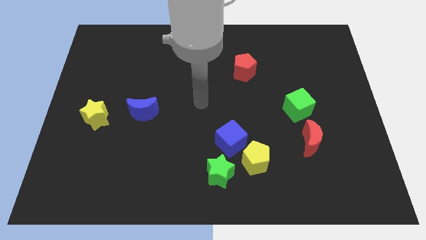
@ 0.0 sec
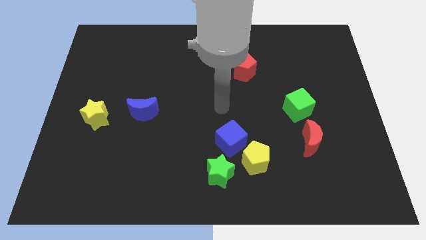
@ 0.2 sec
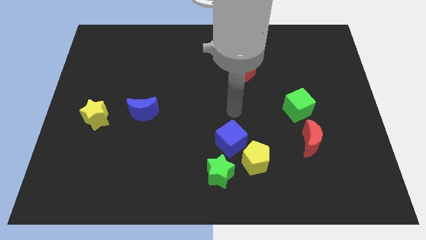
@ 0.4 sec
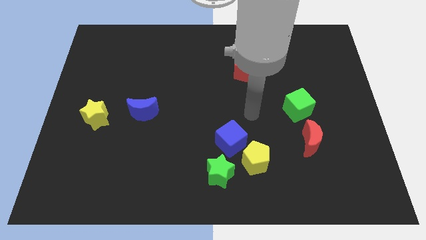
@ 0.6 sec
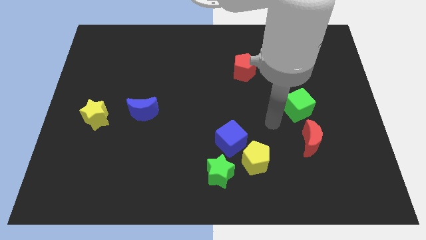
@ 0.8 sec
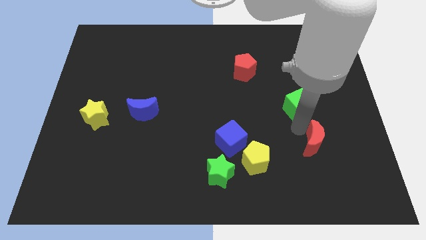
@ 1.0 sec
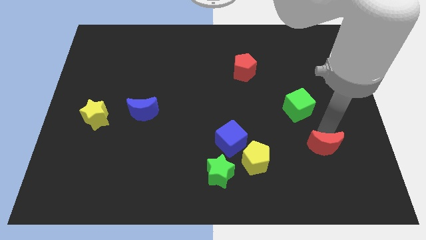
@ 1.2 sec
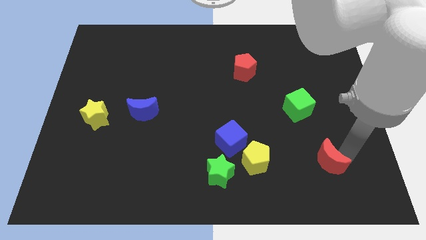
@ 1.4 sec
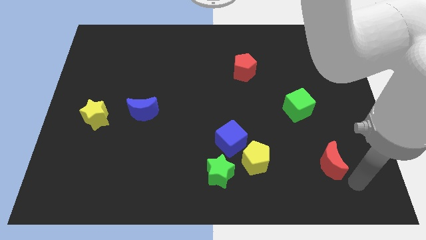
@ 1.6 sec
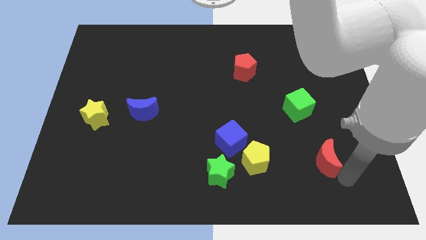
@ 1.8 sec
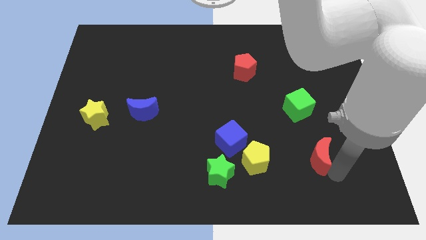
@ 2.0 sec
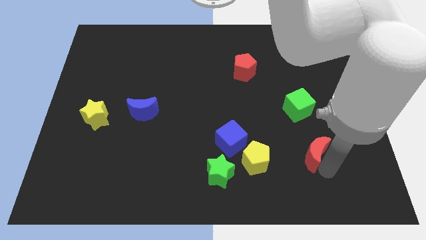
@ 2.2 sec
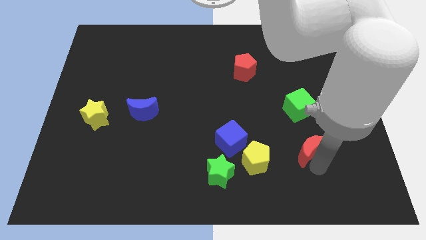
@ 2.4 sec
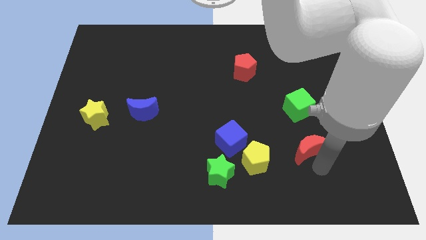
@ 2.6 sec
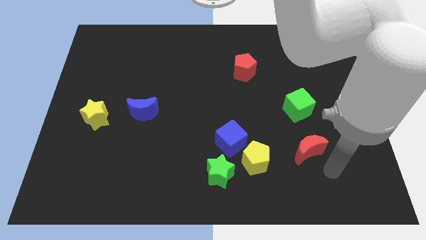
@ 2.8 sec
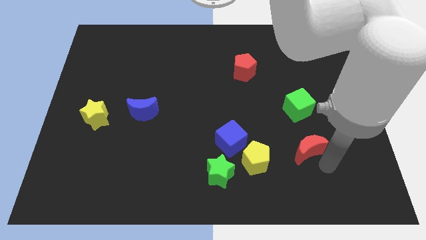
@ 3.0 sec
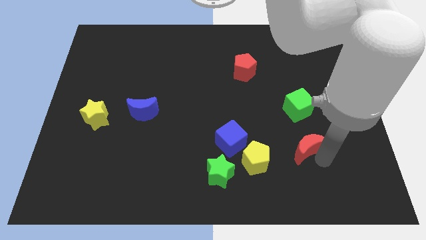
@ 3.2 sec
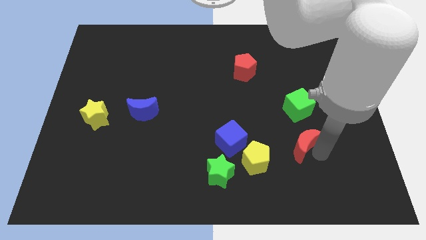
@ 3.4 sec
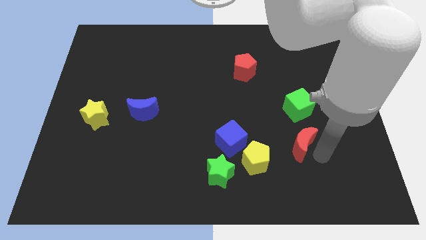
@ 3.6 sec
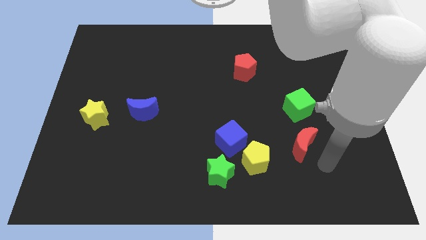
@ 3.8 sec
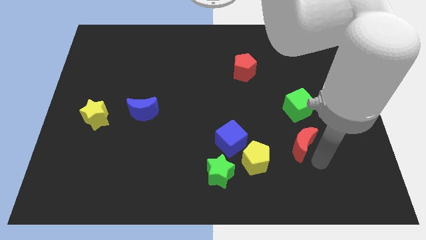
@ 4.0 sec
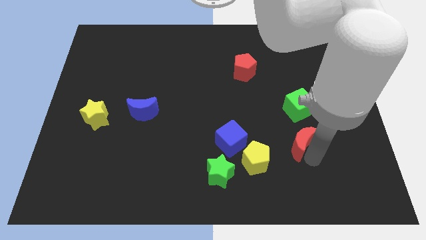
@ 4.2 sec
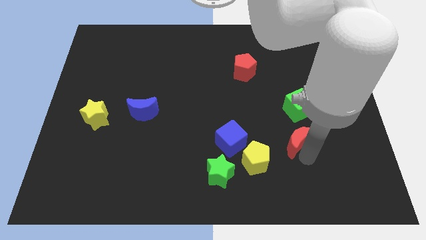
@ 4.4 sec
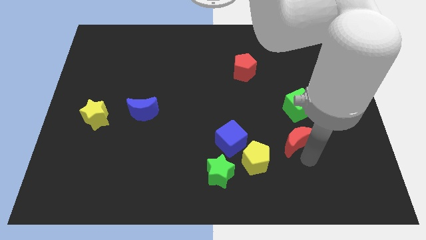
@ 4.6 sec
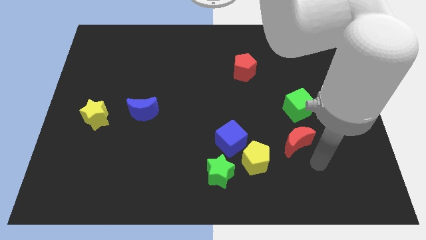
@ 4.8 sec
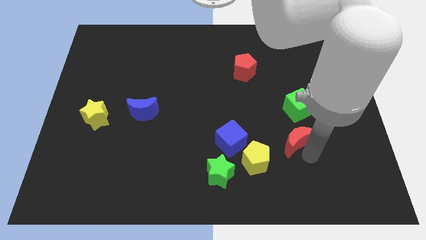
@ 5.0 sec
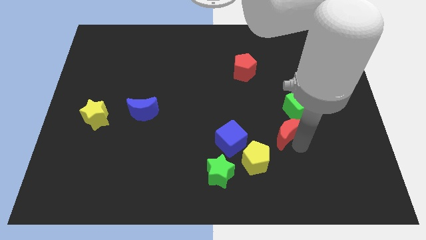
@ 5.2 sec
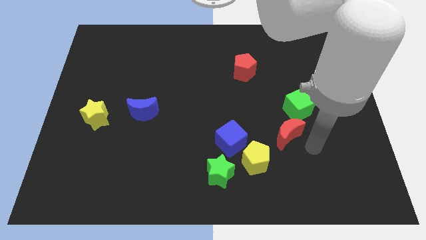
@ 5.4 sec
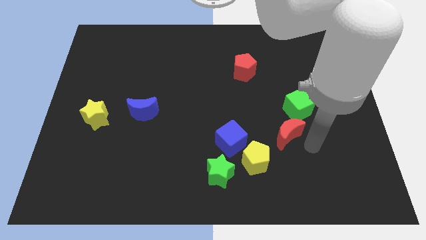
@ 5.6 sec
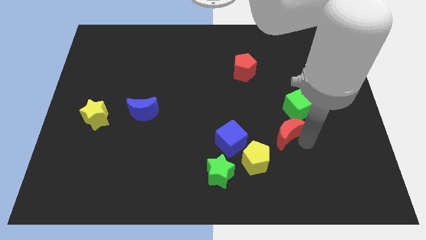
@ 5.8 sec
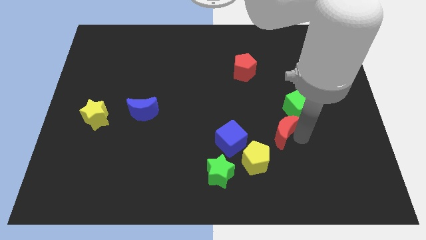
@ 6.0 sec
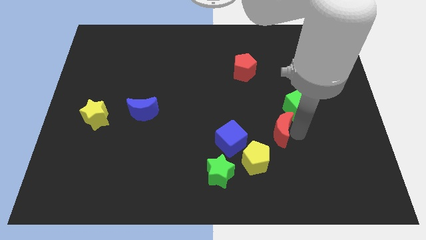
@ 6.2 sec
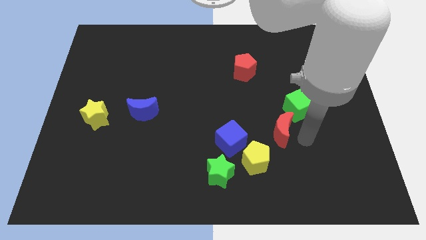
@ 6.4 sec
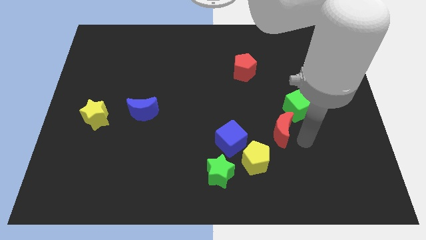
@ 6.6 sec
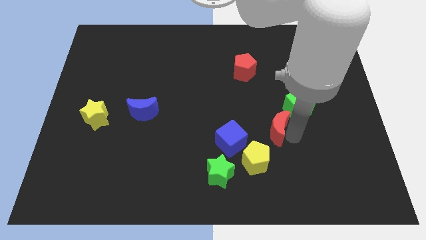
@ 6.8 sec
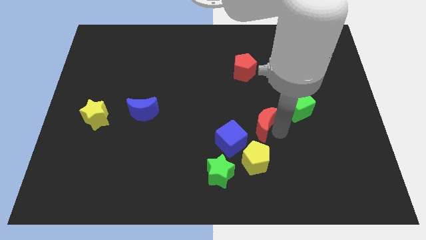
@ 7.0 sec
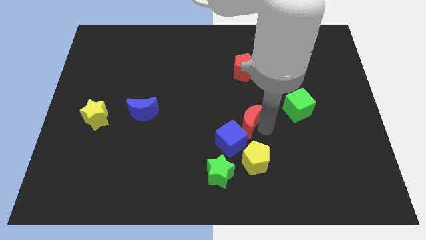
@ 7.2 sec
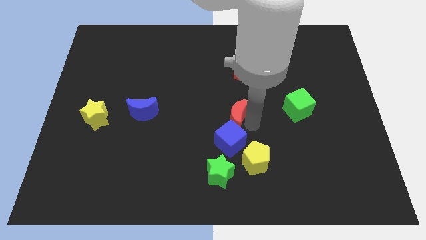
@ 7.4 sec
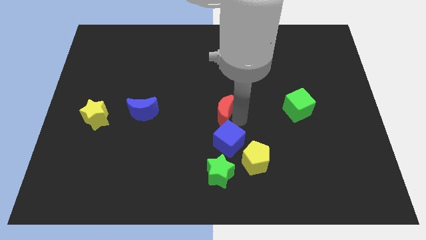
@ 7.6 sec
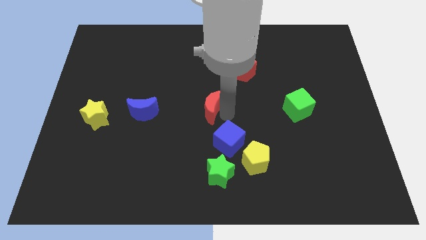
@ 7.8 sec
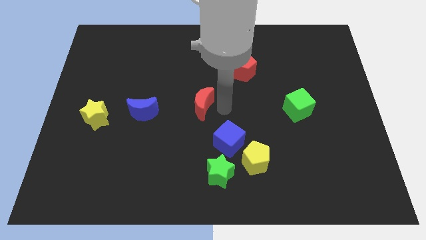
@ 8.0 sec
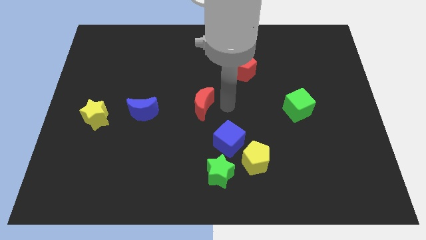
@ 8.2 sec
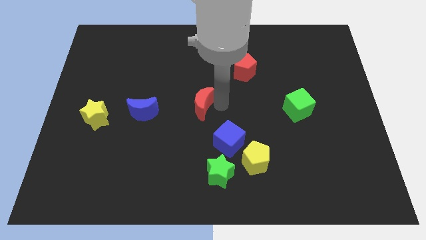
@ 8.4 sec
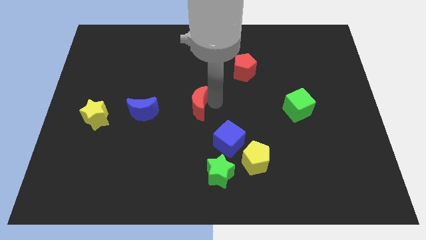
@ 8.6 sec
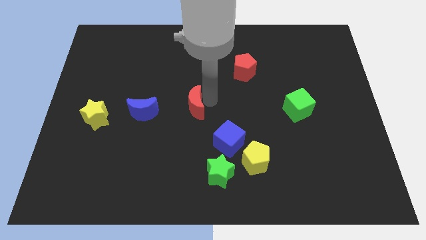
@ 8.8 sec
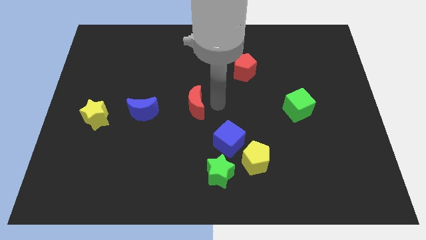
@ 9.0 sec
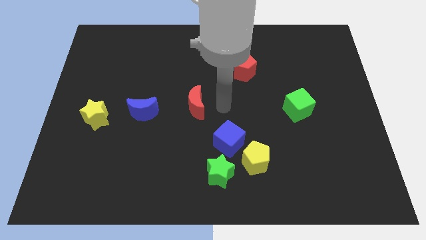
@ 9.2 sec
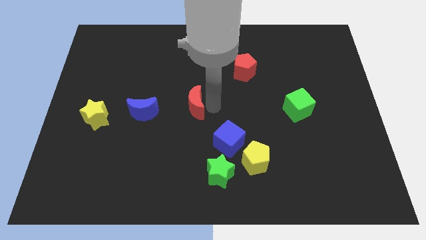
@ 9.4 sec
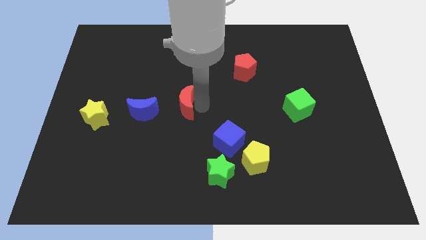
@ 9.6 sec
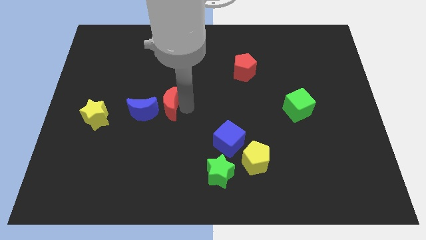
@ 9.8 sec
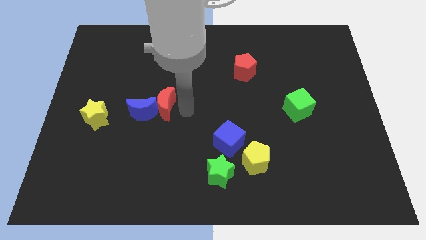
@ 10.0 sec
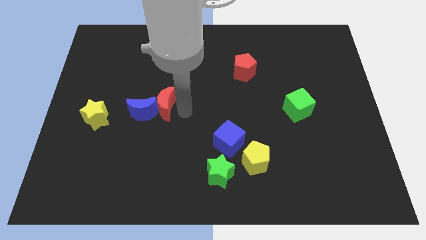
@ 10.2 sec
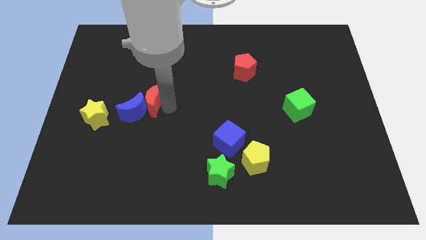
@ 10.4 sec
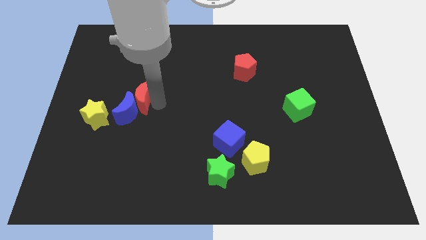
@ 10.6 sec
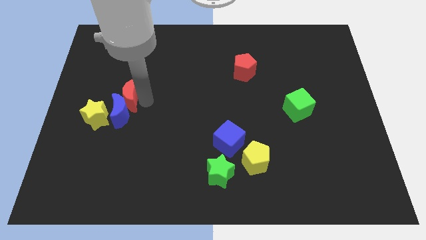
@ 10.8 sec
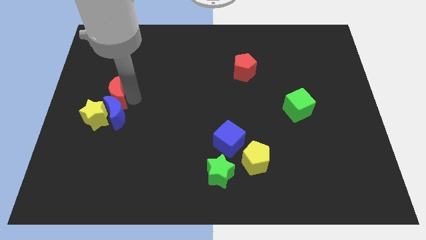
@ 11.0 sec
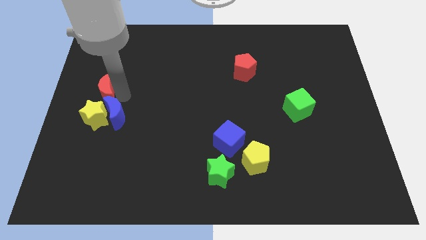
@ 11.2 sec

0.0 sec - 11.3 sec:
put the red moon to the center left

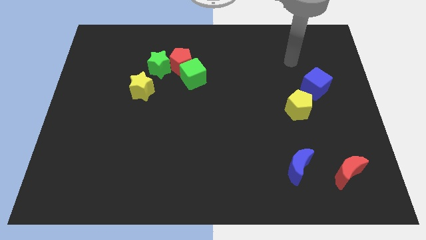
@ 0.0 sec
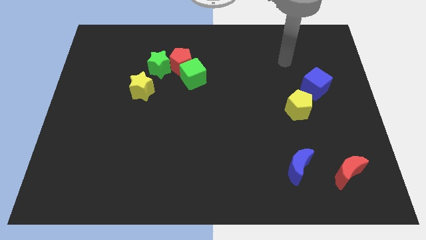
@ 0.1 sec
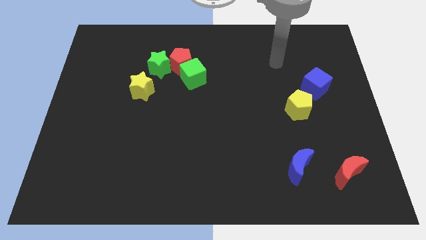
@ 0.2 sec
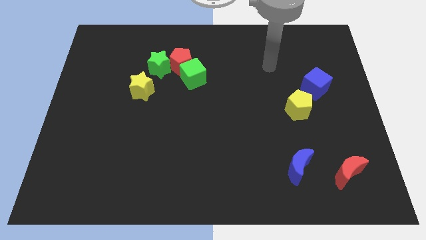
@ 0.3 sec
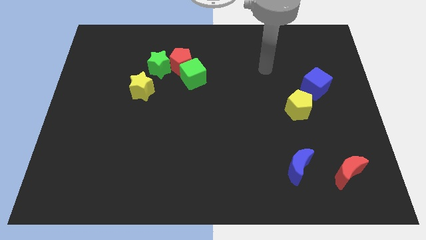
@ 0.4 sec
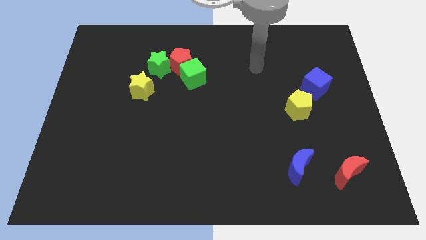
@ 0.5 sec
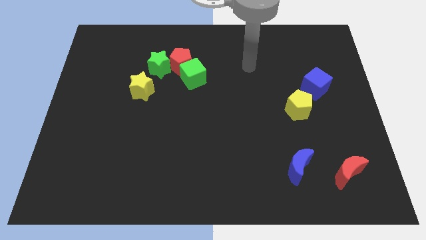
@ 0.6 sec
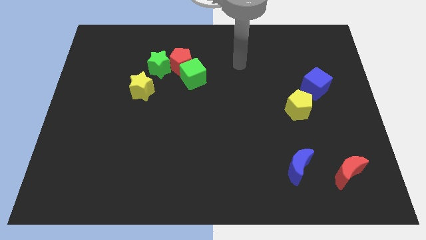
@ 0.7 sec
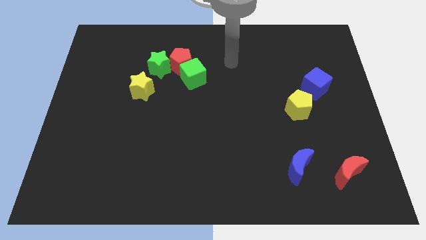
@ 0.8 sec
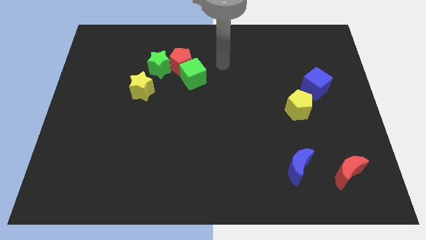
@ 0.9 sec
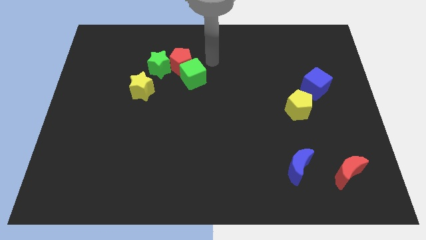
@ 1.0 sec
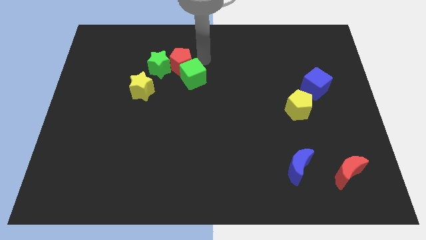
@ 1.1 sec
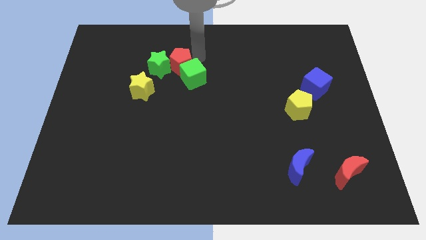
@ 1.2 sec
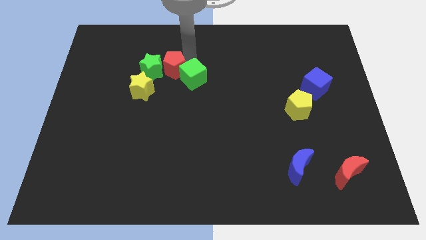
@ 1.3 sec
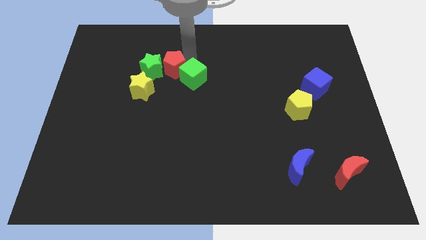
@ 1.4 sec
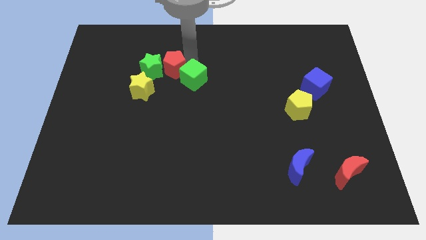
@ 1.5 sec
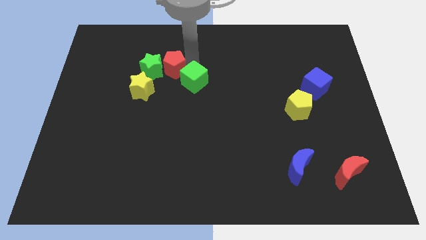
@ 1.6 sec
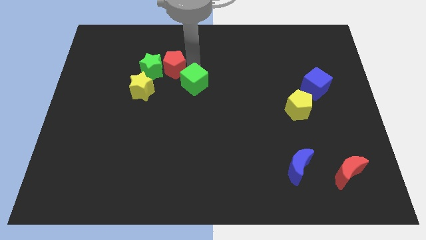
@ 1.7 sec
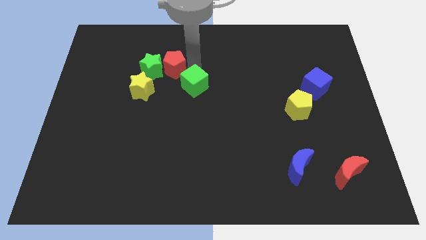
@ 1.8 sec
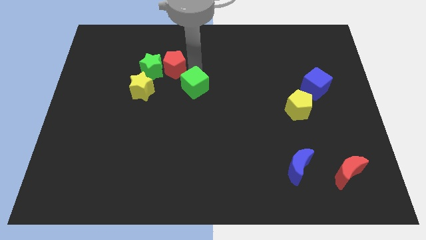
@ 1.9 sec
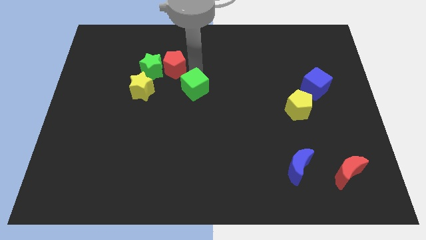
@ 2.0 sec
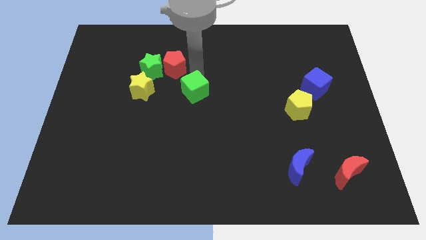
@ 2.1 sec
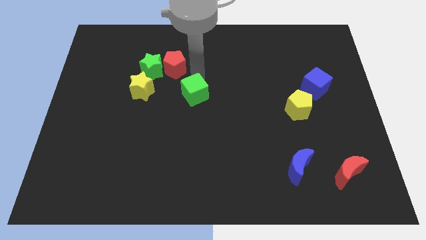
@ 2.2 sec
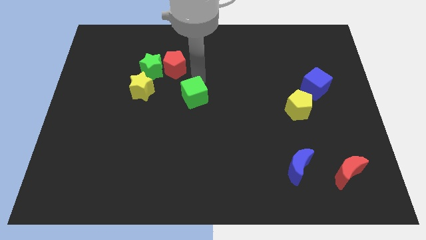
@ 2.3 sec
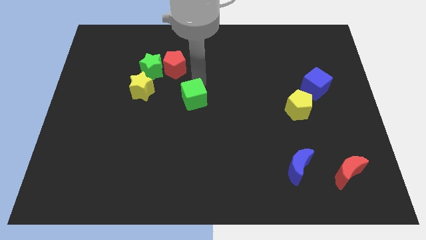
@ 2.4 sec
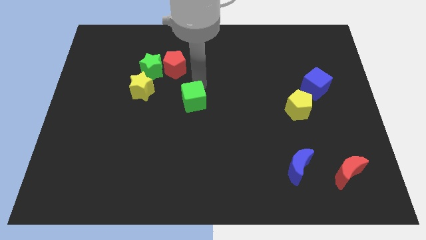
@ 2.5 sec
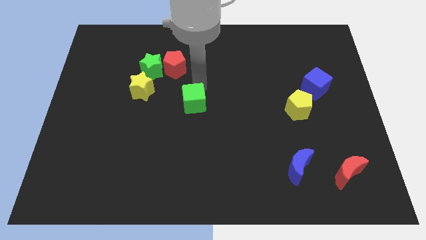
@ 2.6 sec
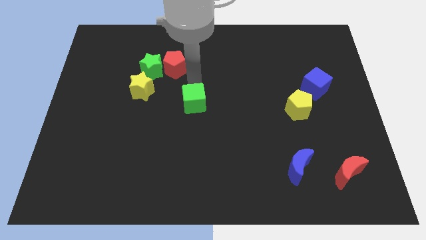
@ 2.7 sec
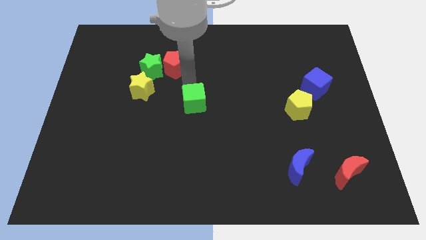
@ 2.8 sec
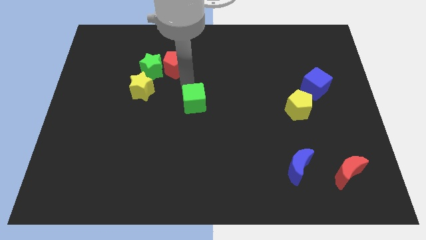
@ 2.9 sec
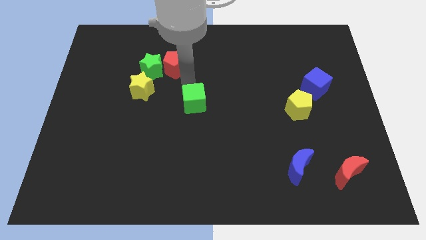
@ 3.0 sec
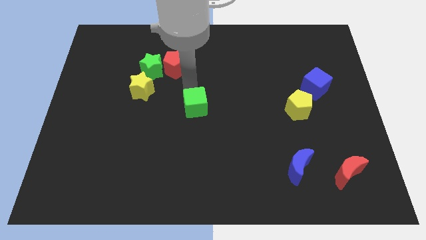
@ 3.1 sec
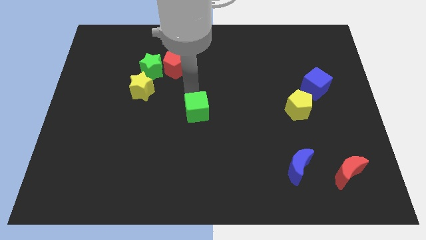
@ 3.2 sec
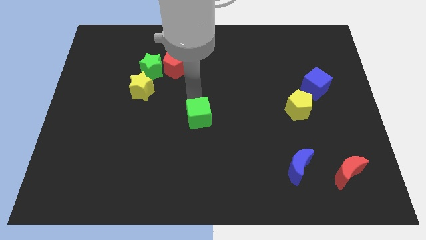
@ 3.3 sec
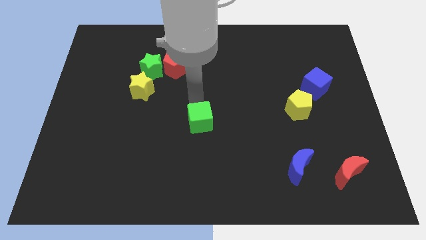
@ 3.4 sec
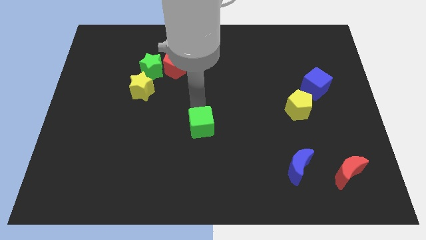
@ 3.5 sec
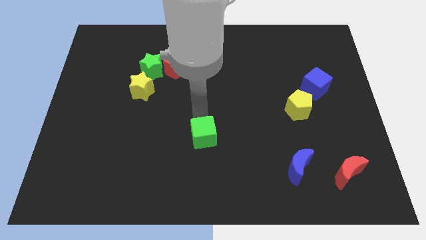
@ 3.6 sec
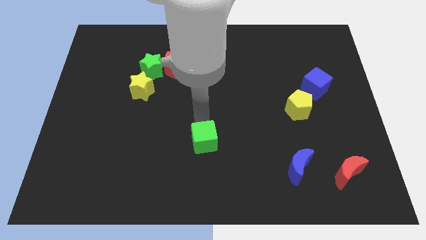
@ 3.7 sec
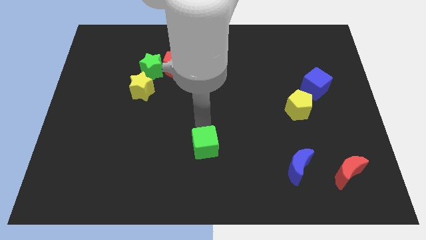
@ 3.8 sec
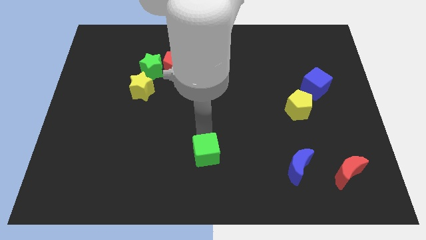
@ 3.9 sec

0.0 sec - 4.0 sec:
slide the green cube to the bottom side
